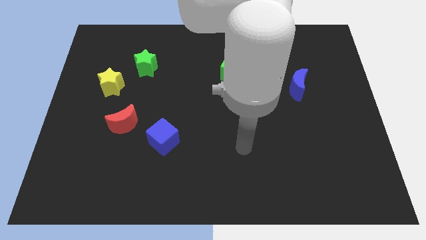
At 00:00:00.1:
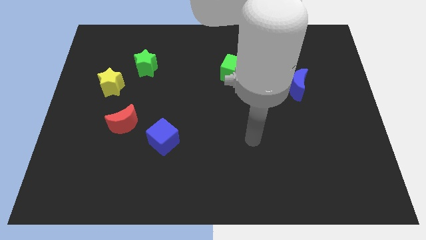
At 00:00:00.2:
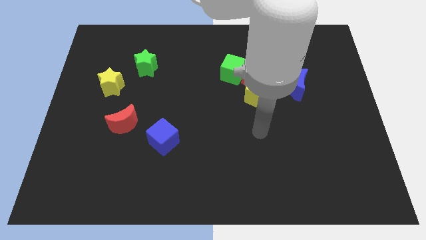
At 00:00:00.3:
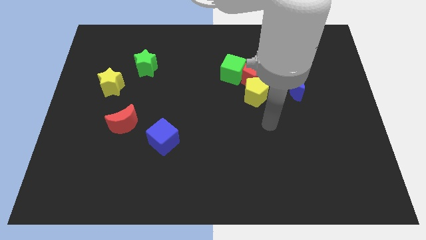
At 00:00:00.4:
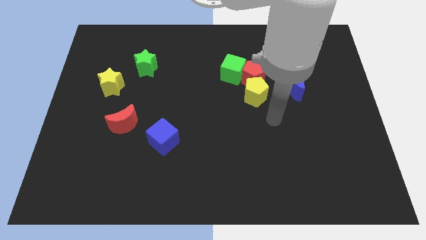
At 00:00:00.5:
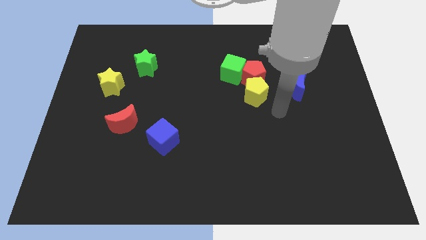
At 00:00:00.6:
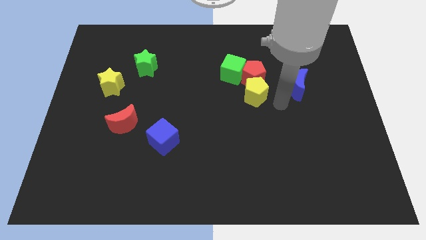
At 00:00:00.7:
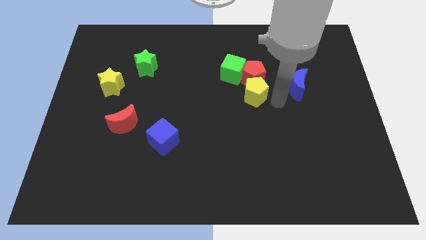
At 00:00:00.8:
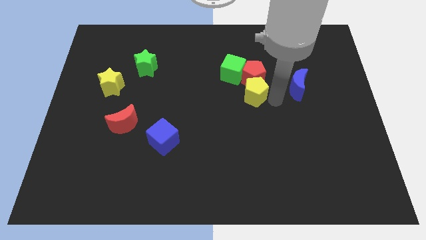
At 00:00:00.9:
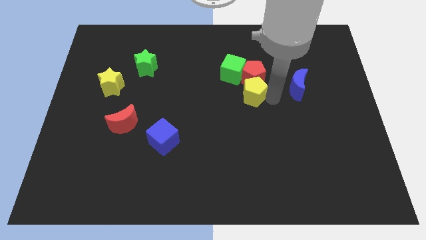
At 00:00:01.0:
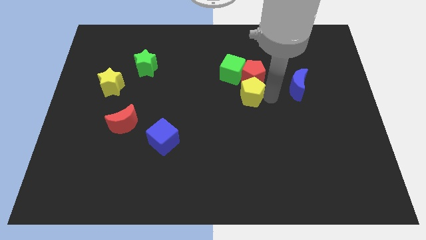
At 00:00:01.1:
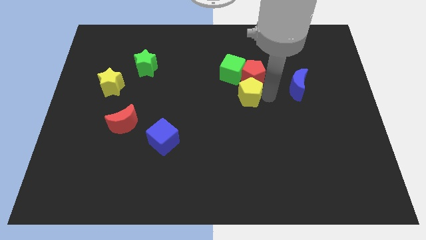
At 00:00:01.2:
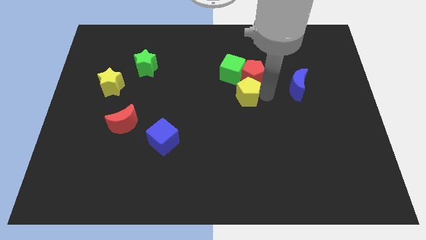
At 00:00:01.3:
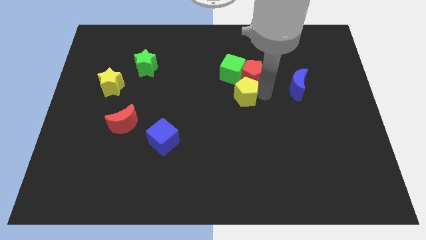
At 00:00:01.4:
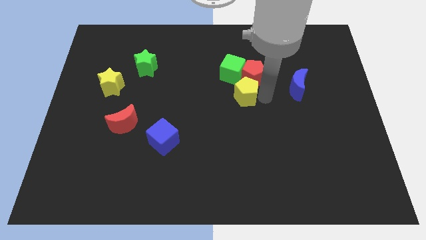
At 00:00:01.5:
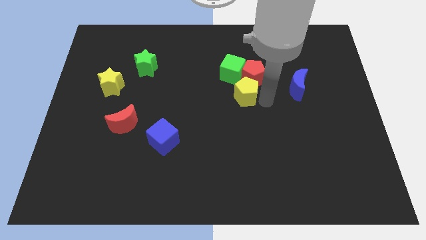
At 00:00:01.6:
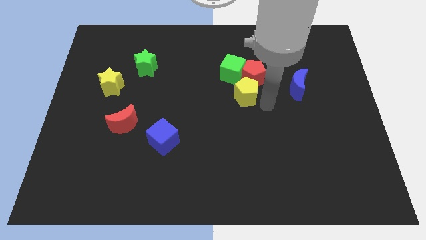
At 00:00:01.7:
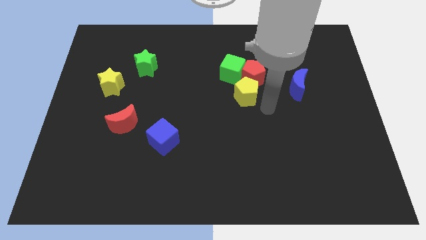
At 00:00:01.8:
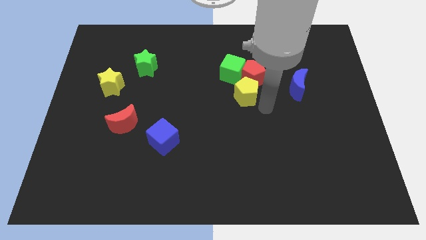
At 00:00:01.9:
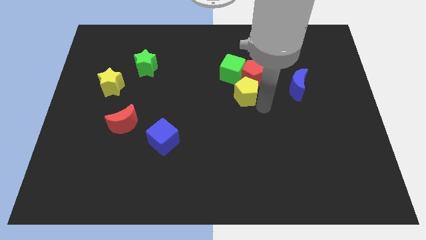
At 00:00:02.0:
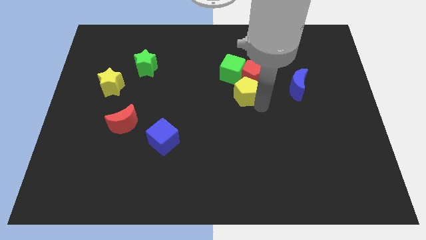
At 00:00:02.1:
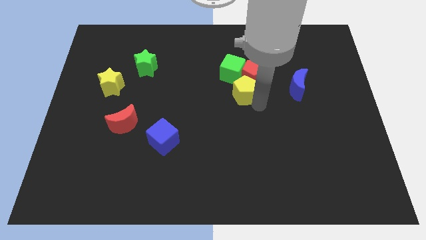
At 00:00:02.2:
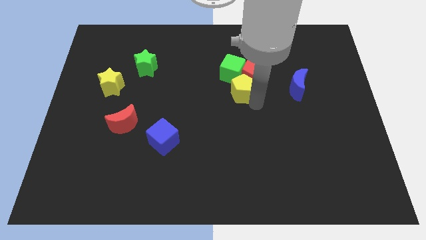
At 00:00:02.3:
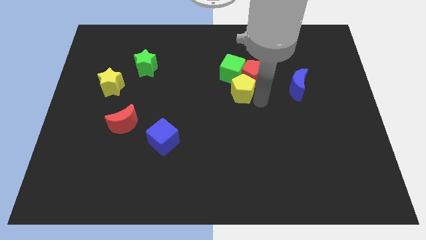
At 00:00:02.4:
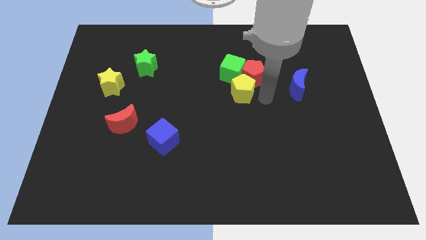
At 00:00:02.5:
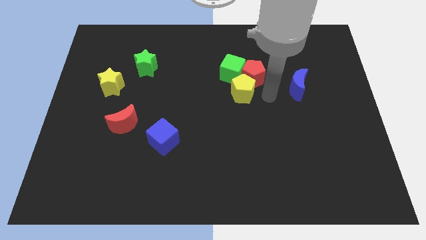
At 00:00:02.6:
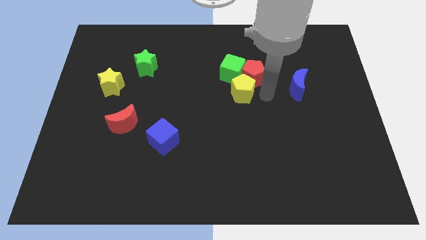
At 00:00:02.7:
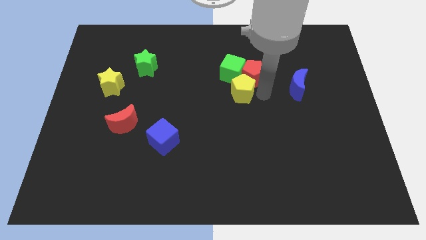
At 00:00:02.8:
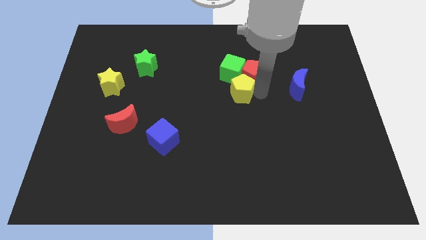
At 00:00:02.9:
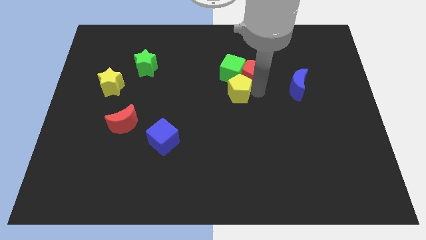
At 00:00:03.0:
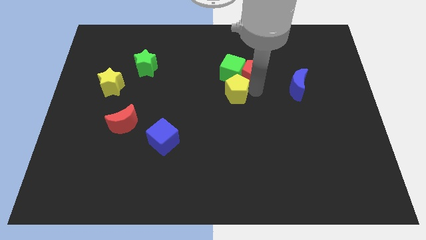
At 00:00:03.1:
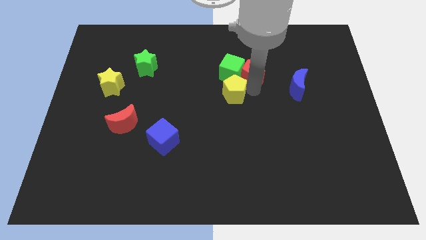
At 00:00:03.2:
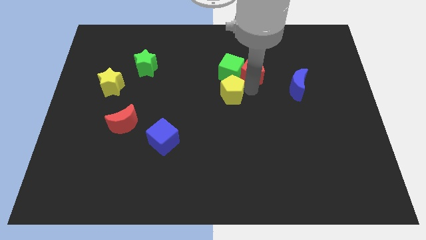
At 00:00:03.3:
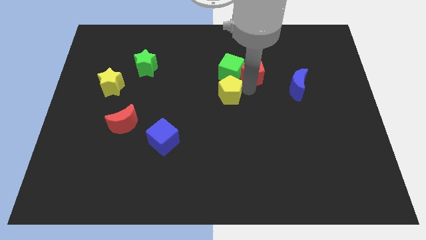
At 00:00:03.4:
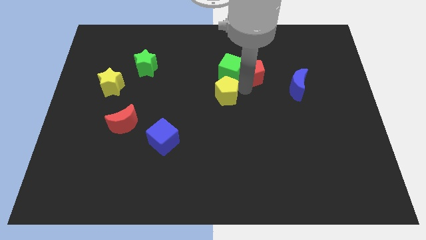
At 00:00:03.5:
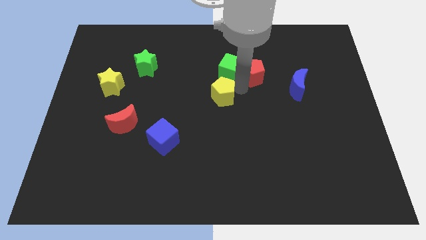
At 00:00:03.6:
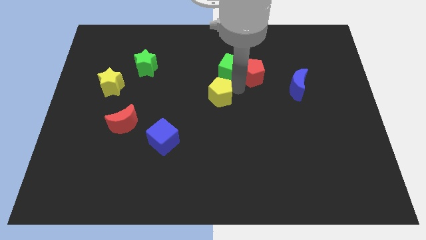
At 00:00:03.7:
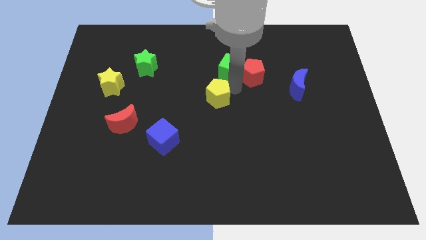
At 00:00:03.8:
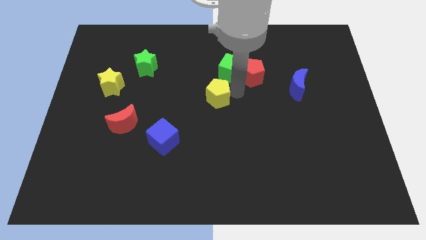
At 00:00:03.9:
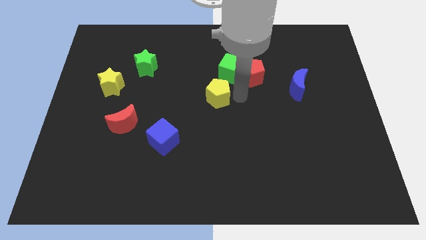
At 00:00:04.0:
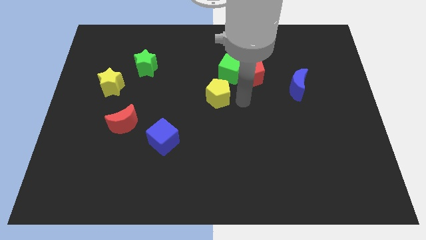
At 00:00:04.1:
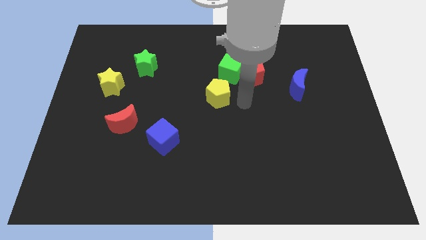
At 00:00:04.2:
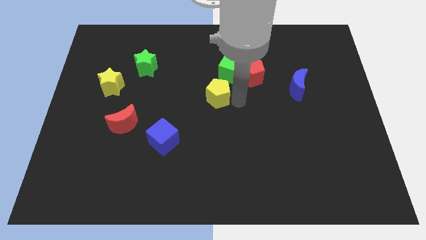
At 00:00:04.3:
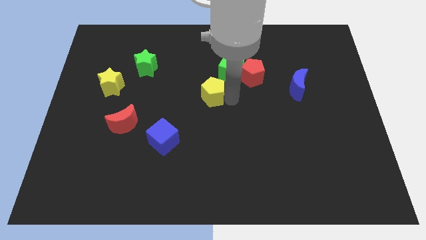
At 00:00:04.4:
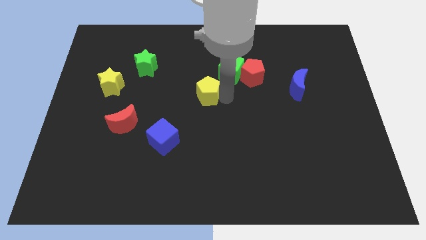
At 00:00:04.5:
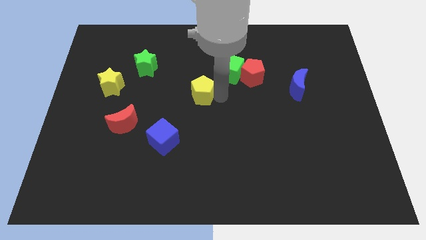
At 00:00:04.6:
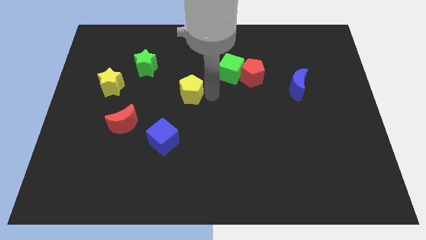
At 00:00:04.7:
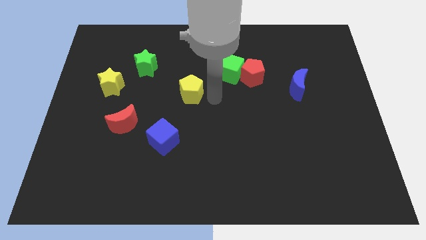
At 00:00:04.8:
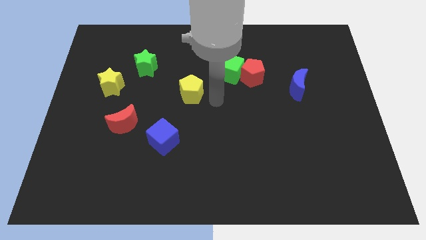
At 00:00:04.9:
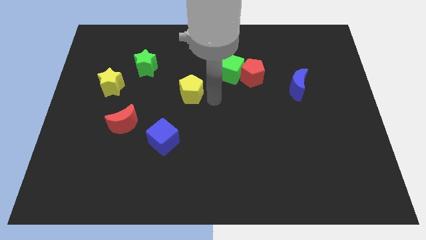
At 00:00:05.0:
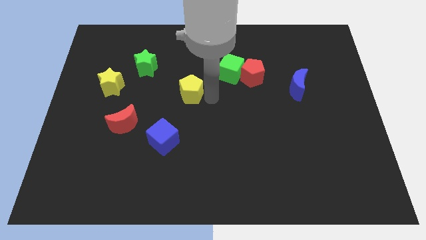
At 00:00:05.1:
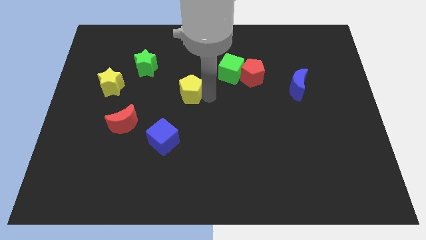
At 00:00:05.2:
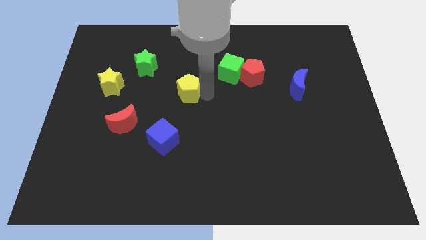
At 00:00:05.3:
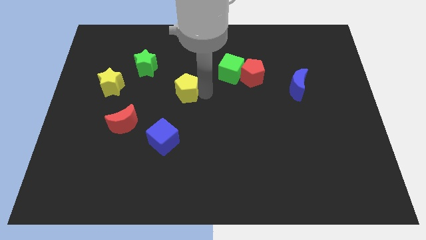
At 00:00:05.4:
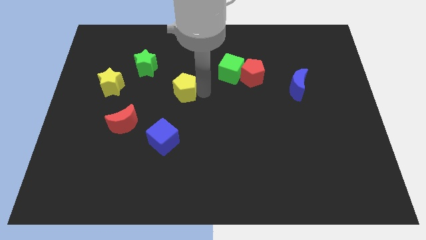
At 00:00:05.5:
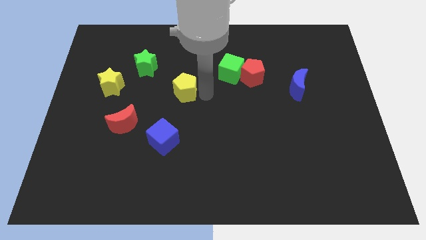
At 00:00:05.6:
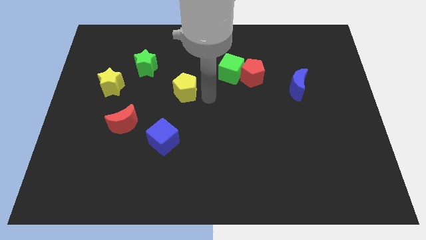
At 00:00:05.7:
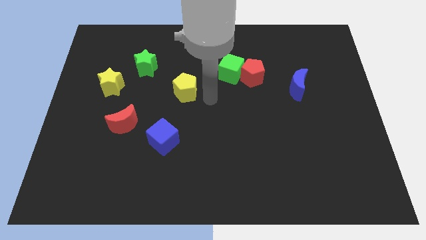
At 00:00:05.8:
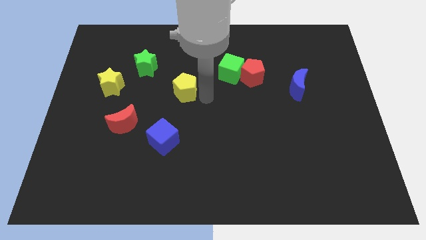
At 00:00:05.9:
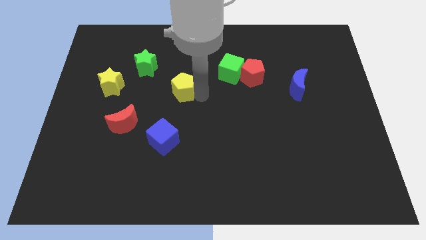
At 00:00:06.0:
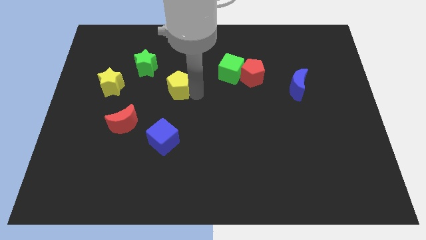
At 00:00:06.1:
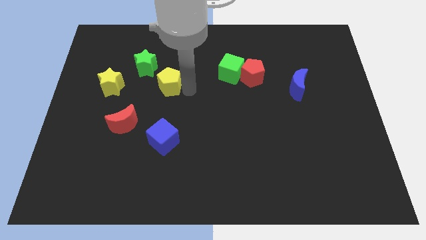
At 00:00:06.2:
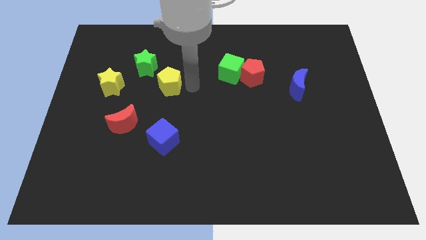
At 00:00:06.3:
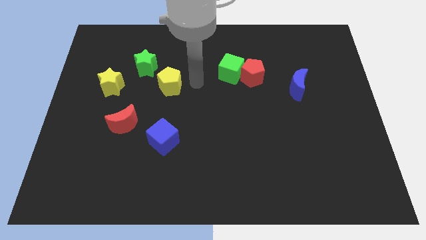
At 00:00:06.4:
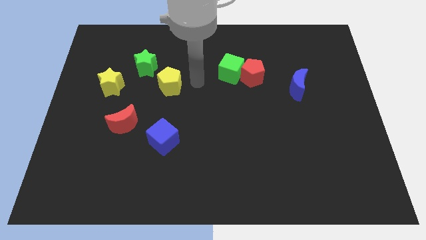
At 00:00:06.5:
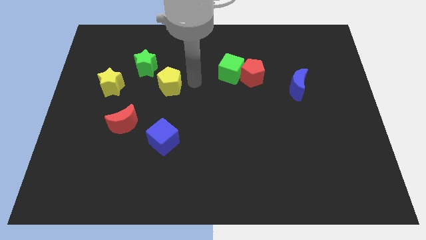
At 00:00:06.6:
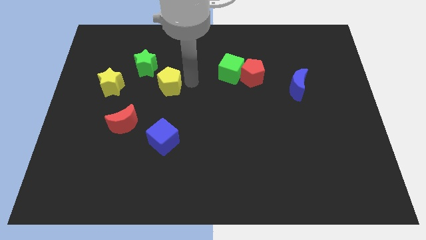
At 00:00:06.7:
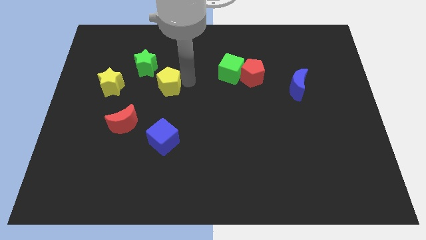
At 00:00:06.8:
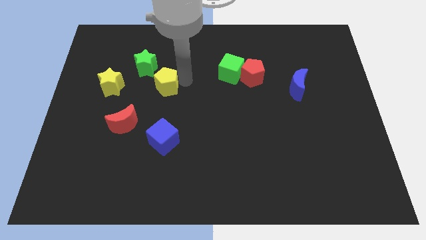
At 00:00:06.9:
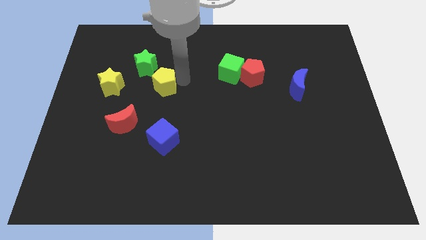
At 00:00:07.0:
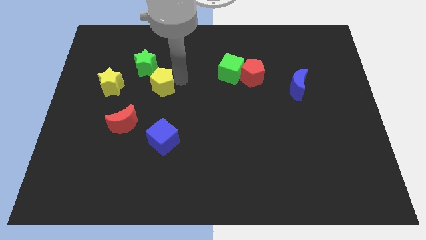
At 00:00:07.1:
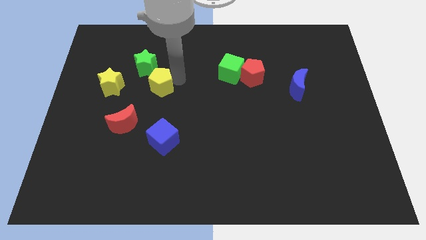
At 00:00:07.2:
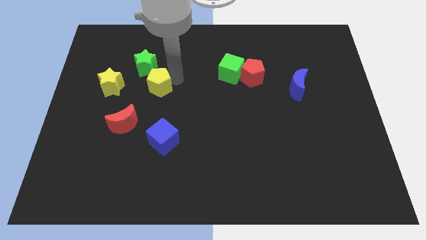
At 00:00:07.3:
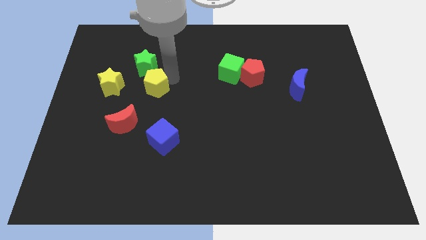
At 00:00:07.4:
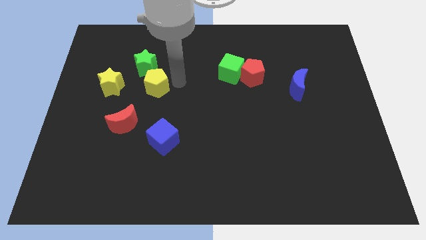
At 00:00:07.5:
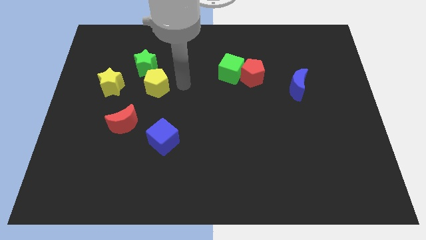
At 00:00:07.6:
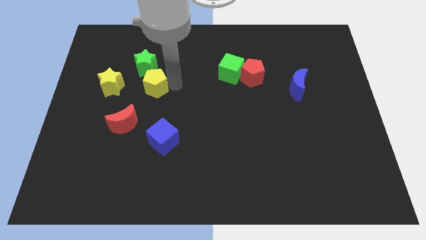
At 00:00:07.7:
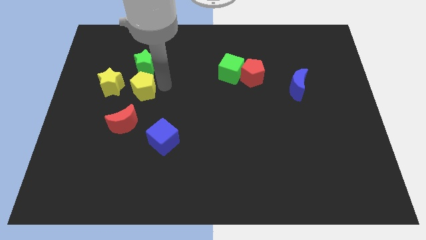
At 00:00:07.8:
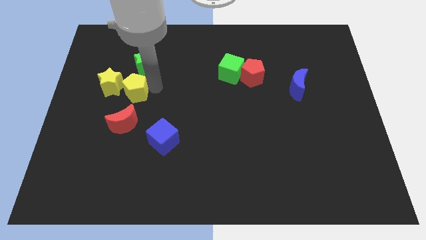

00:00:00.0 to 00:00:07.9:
move the yellow pentagon close to the yellow star
